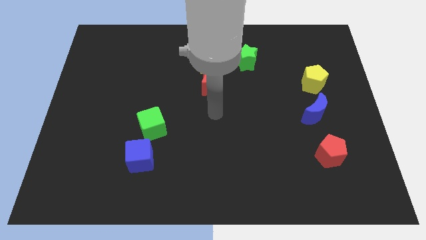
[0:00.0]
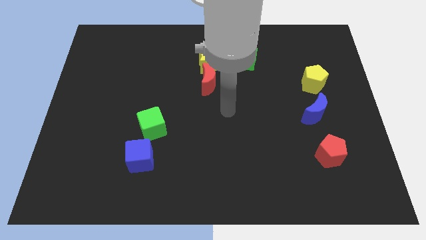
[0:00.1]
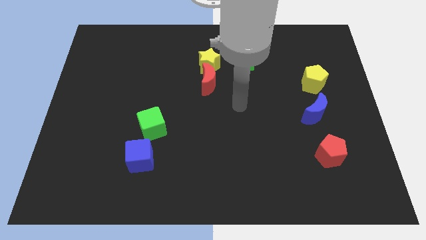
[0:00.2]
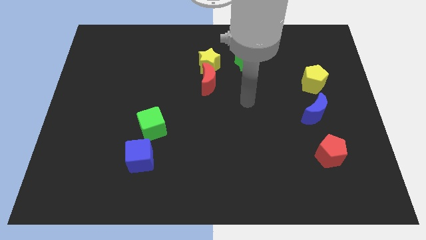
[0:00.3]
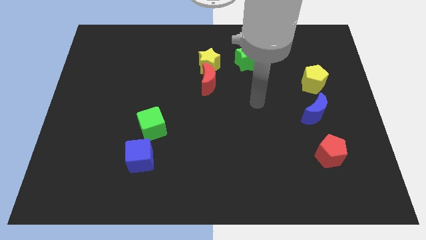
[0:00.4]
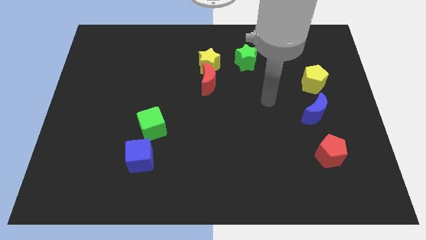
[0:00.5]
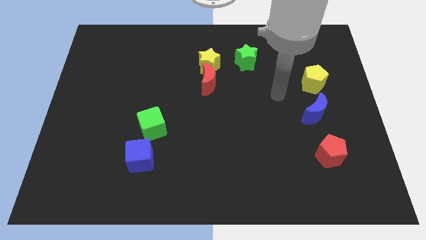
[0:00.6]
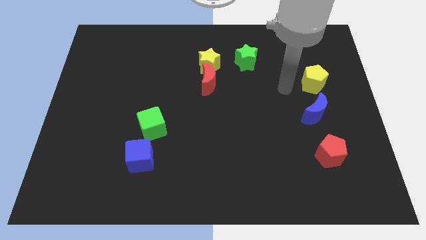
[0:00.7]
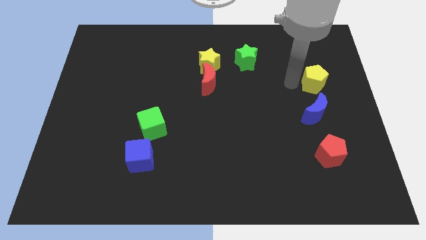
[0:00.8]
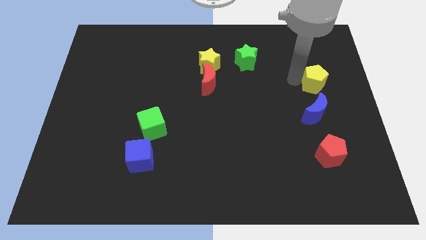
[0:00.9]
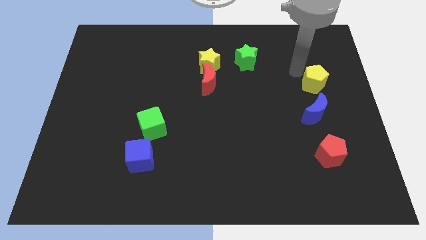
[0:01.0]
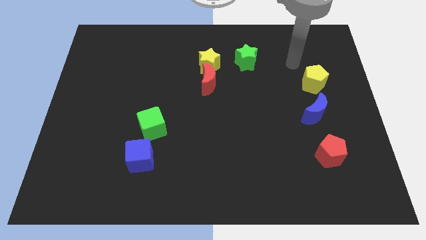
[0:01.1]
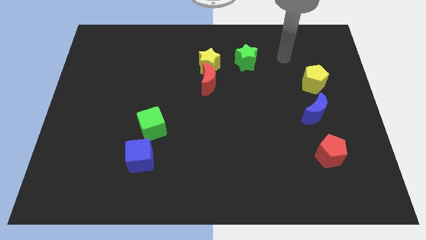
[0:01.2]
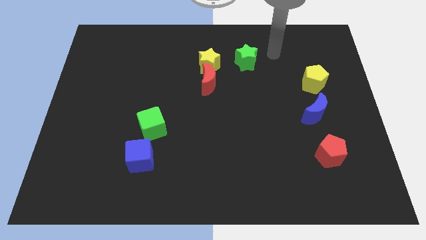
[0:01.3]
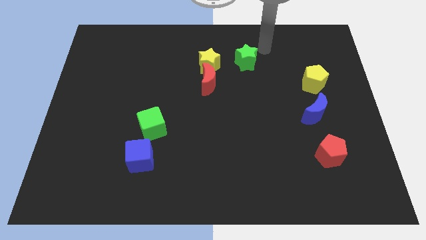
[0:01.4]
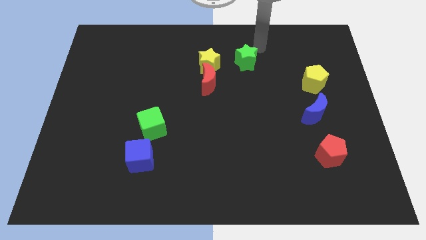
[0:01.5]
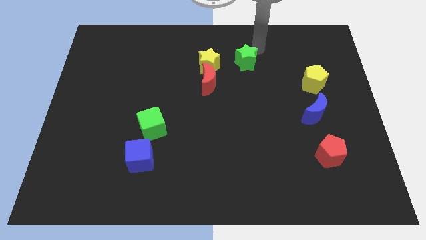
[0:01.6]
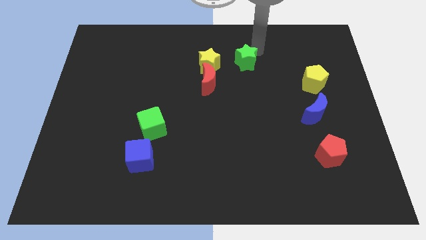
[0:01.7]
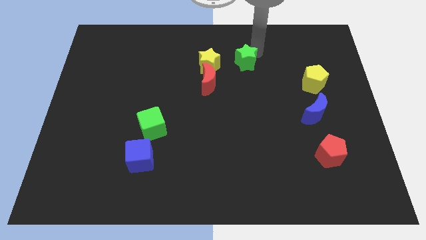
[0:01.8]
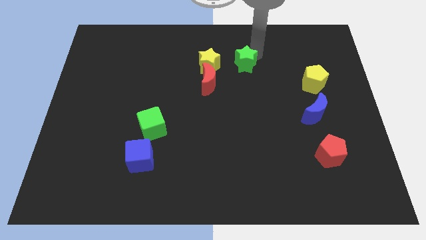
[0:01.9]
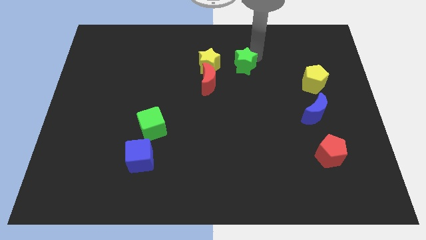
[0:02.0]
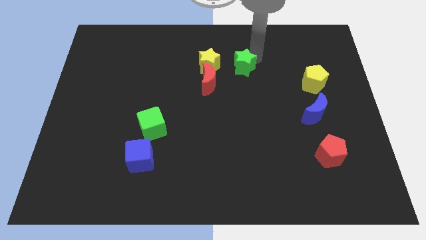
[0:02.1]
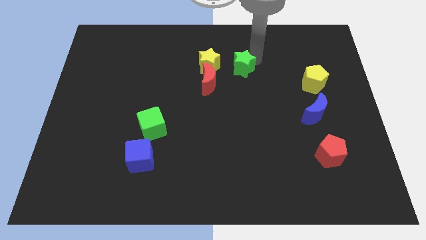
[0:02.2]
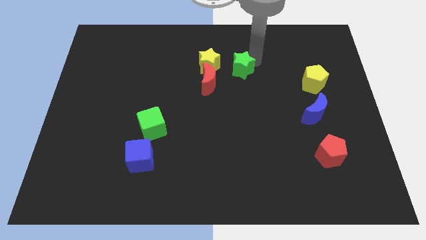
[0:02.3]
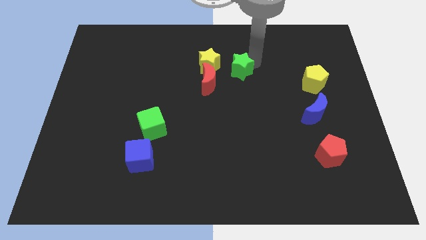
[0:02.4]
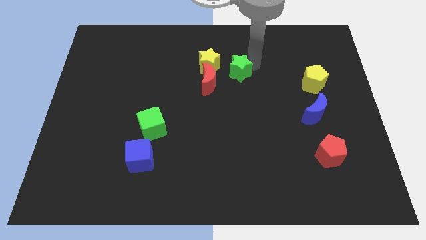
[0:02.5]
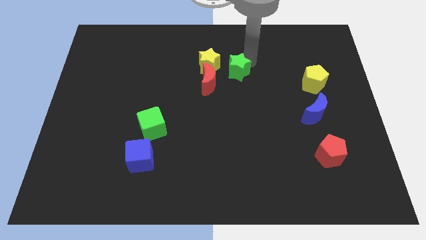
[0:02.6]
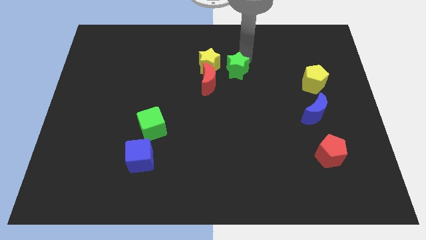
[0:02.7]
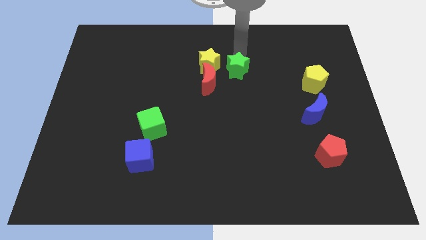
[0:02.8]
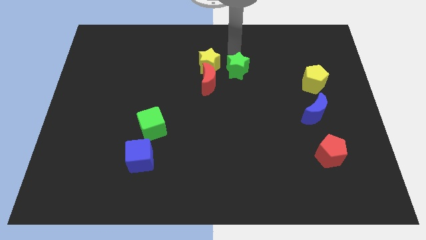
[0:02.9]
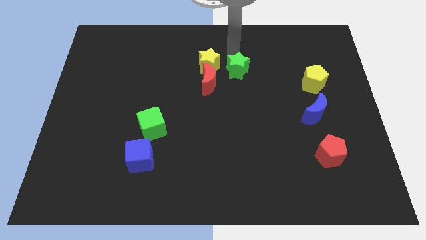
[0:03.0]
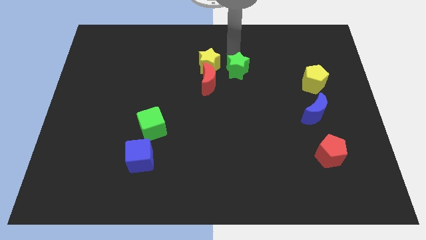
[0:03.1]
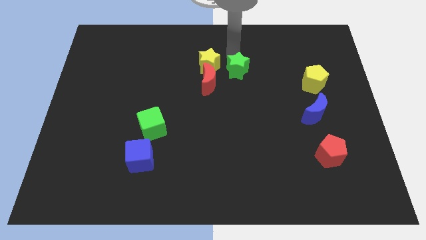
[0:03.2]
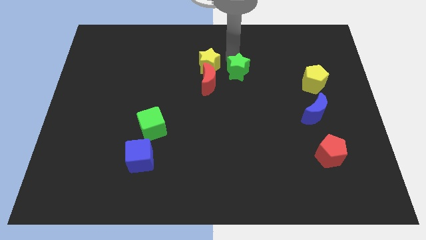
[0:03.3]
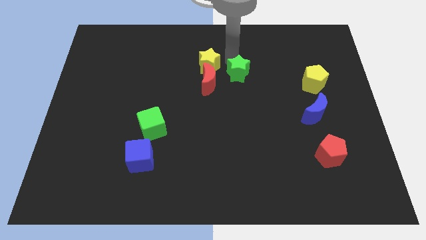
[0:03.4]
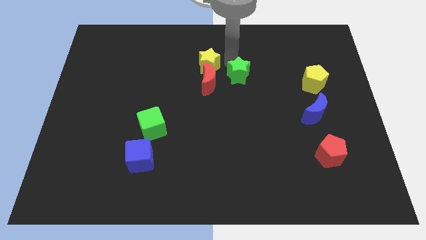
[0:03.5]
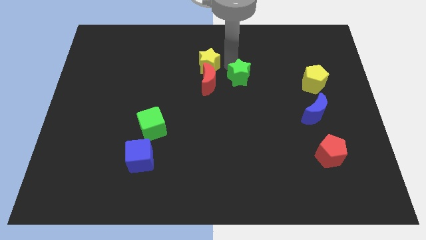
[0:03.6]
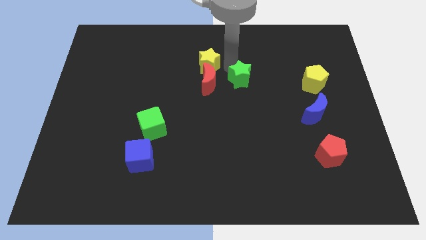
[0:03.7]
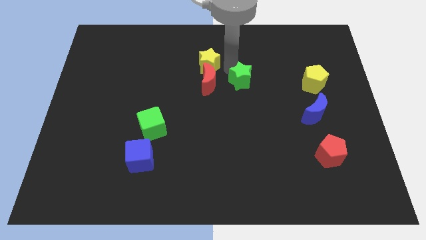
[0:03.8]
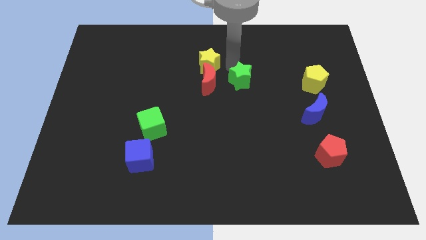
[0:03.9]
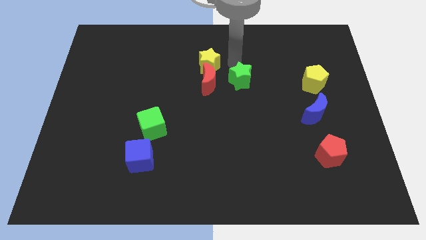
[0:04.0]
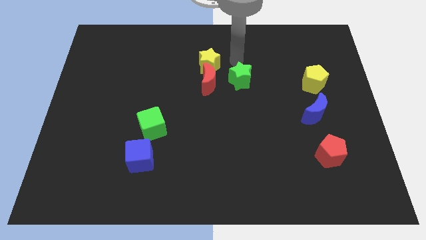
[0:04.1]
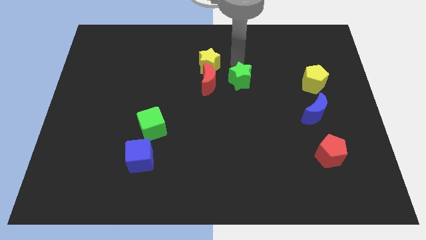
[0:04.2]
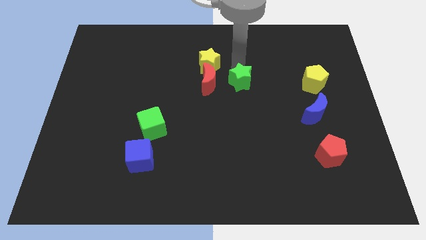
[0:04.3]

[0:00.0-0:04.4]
slide the green star a little down

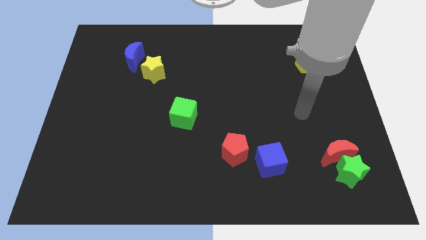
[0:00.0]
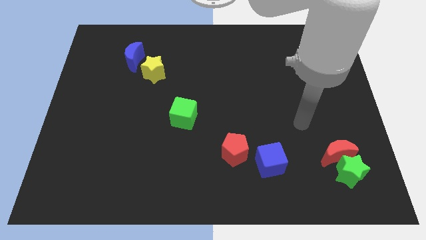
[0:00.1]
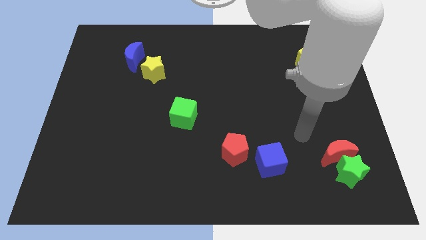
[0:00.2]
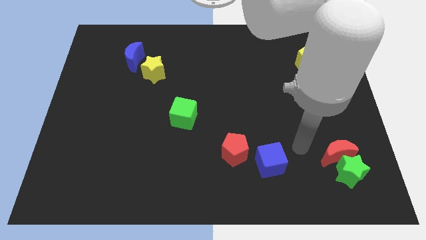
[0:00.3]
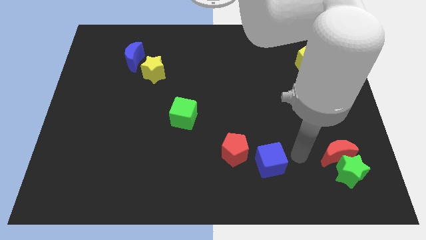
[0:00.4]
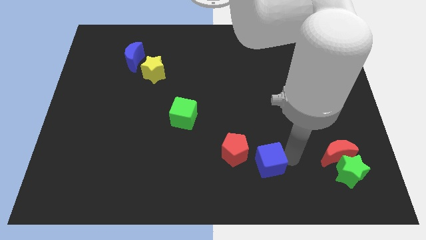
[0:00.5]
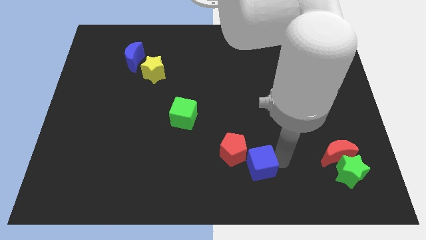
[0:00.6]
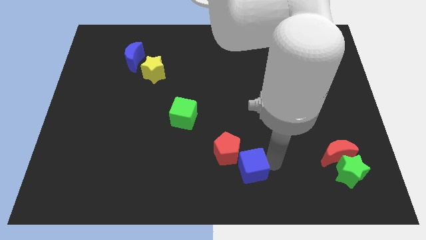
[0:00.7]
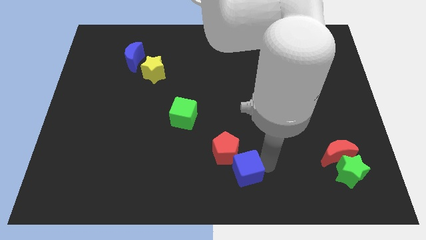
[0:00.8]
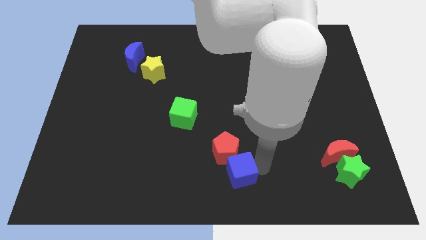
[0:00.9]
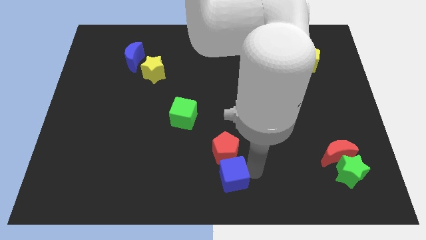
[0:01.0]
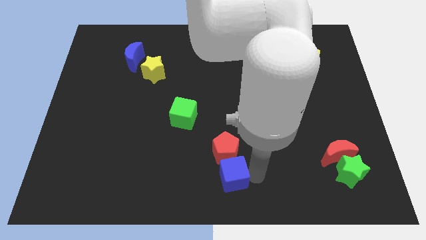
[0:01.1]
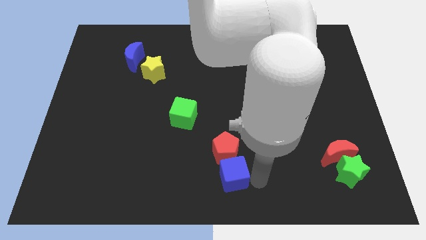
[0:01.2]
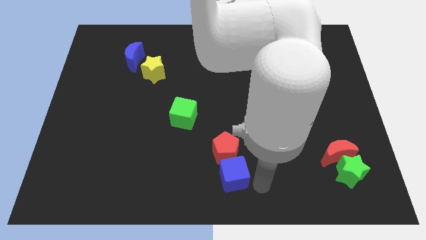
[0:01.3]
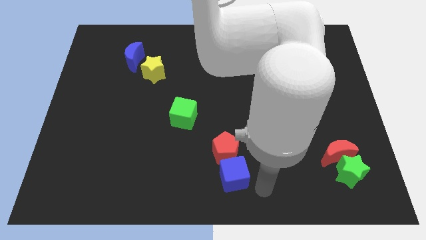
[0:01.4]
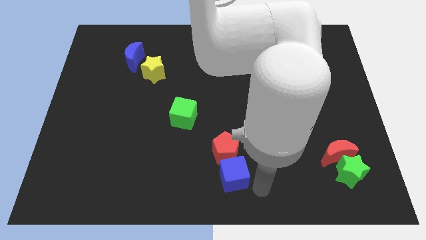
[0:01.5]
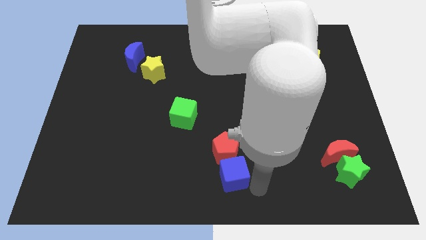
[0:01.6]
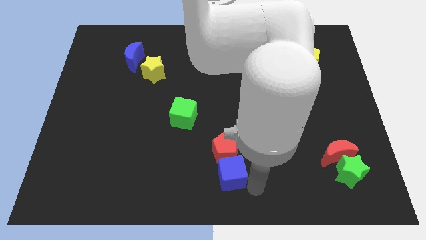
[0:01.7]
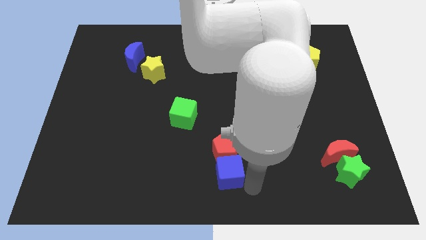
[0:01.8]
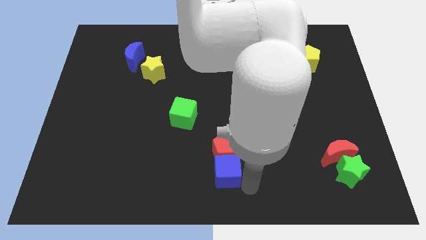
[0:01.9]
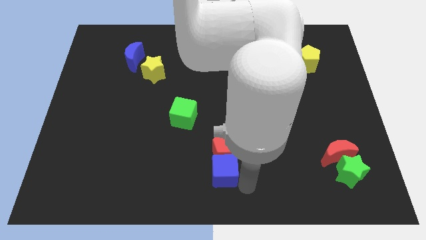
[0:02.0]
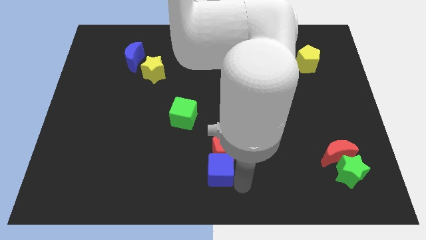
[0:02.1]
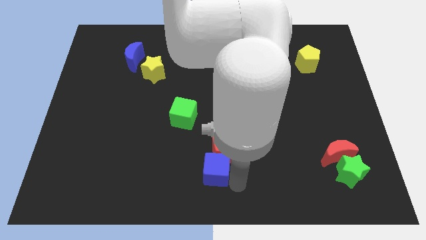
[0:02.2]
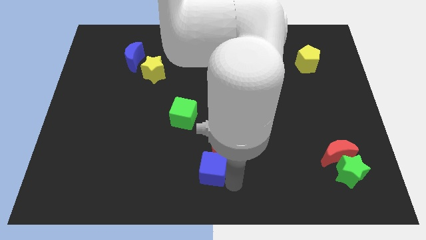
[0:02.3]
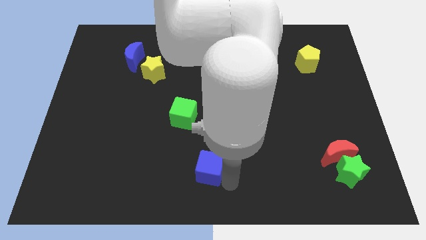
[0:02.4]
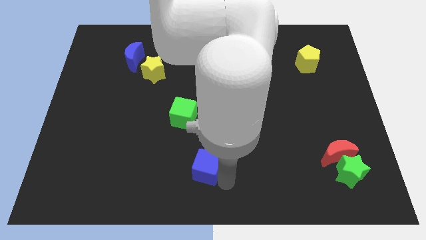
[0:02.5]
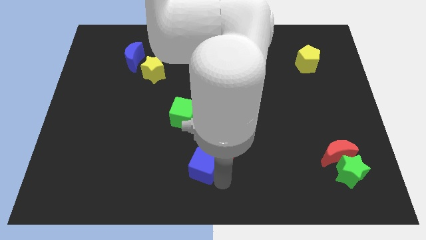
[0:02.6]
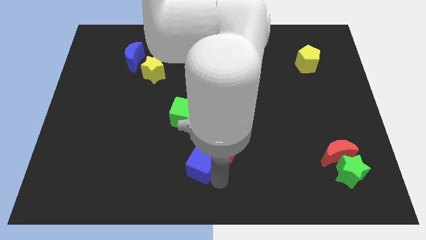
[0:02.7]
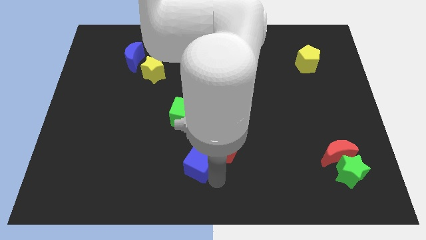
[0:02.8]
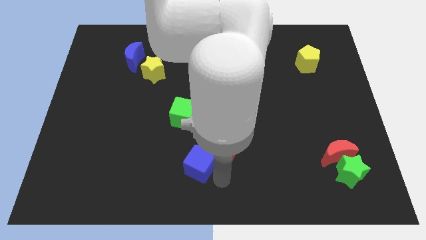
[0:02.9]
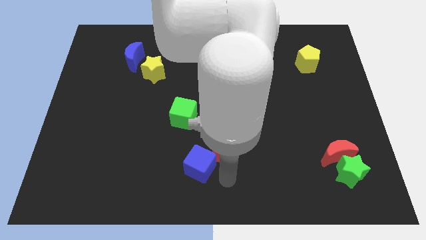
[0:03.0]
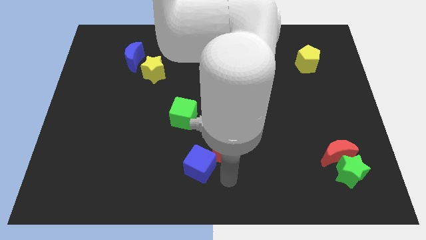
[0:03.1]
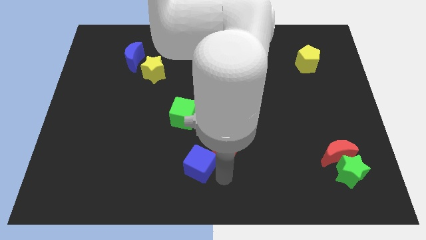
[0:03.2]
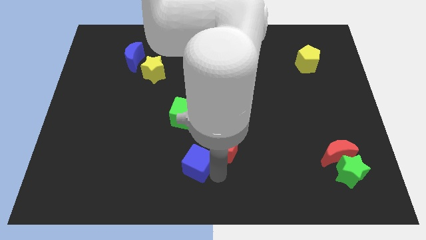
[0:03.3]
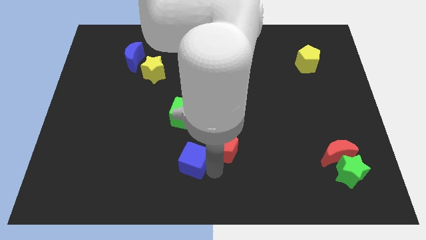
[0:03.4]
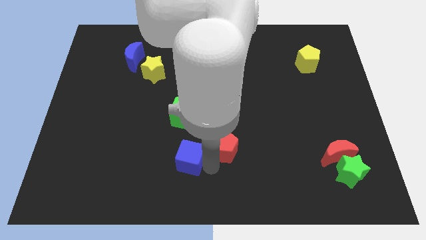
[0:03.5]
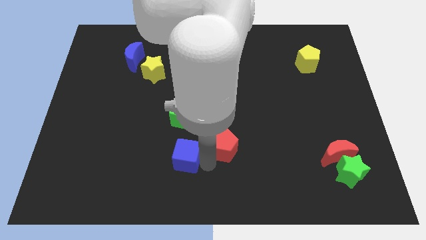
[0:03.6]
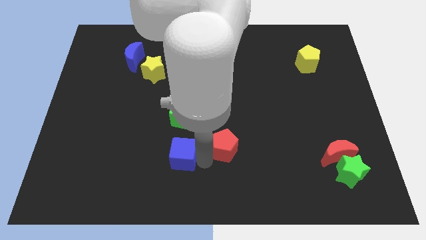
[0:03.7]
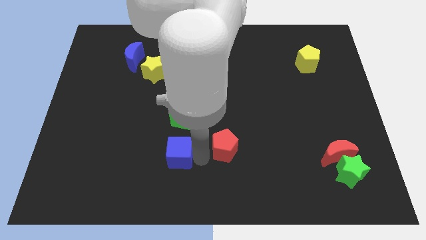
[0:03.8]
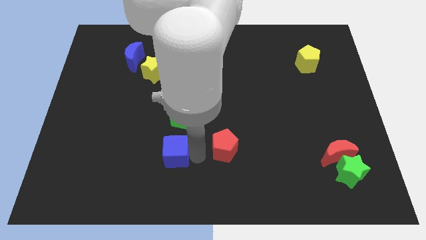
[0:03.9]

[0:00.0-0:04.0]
slide the blue cube to the left
